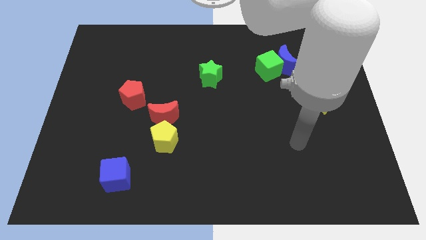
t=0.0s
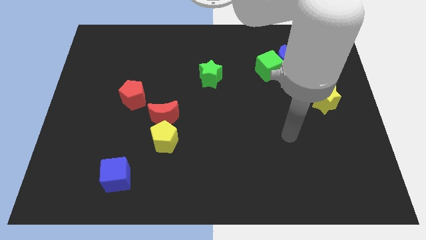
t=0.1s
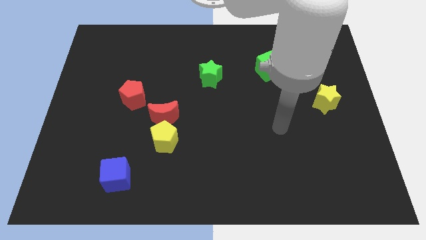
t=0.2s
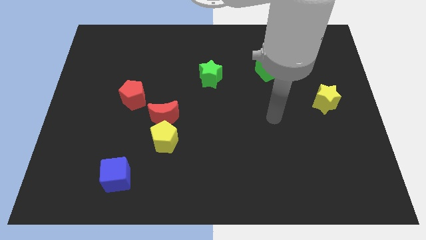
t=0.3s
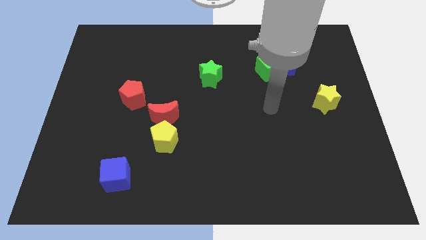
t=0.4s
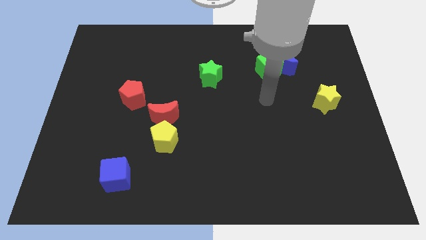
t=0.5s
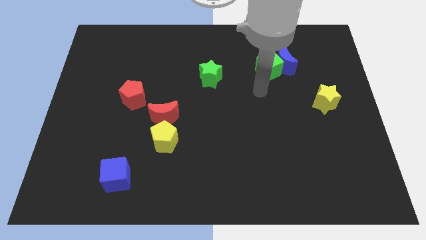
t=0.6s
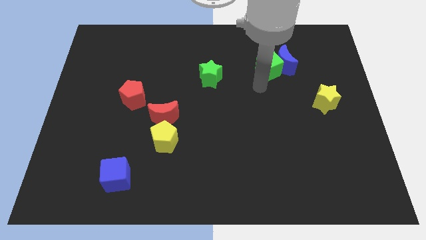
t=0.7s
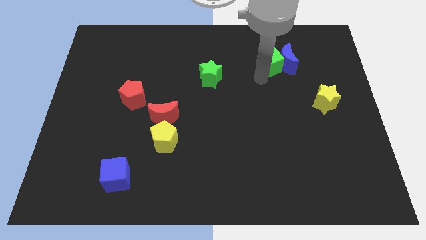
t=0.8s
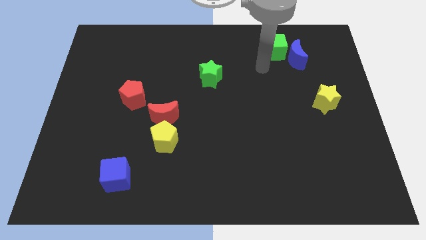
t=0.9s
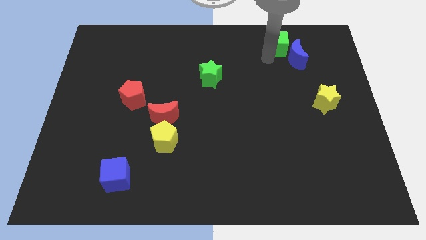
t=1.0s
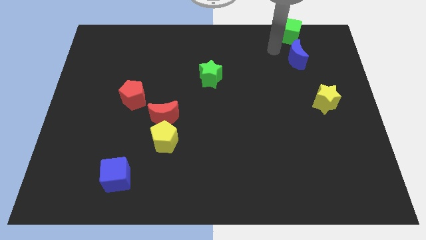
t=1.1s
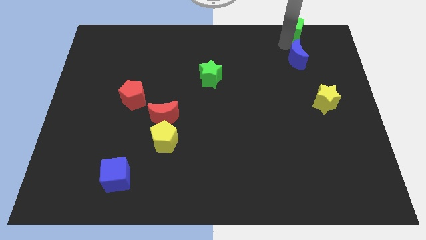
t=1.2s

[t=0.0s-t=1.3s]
separate the blue moon from the green cube

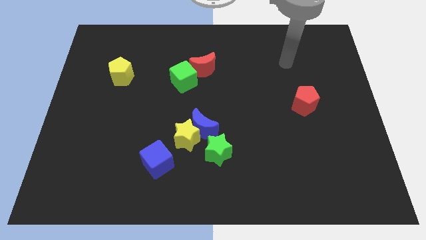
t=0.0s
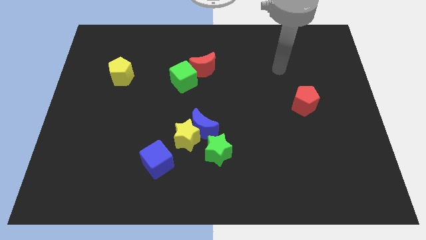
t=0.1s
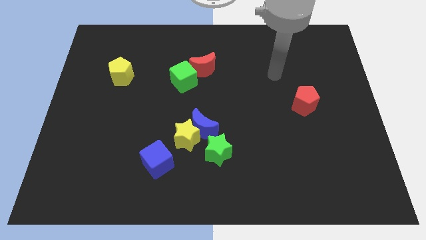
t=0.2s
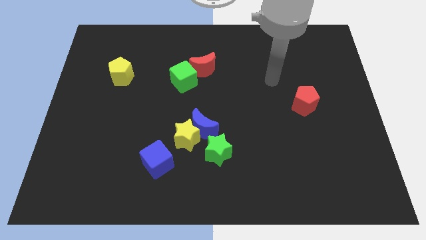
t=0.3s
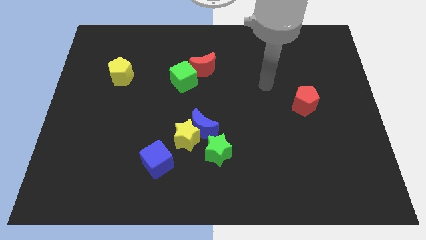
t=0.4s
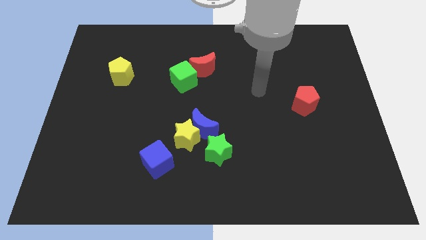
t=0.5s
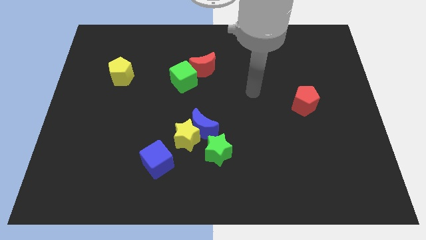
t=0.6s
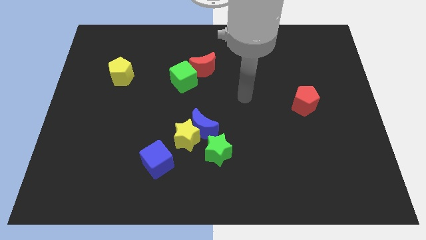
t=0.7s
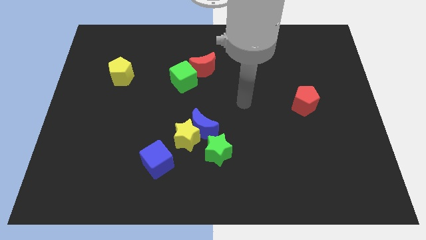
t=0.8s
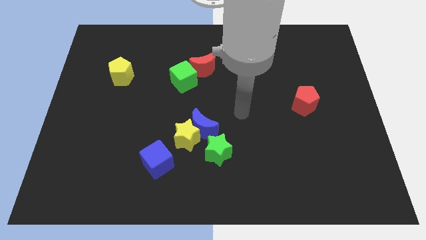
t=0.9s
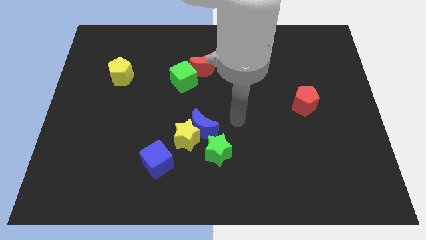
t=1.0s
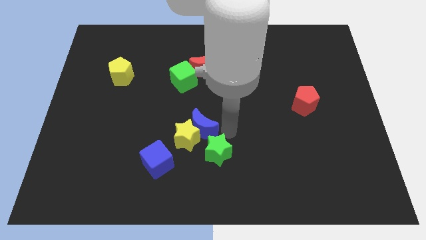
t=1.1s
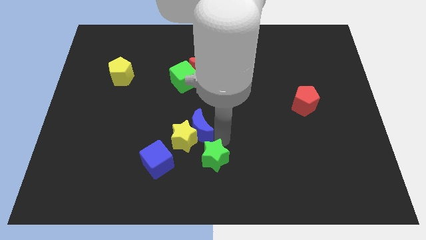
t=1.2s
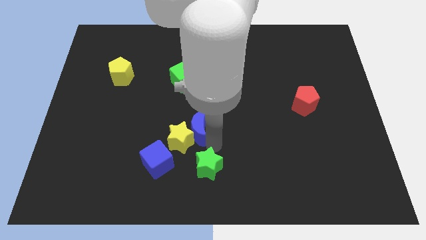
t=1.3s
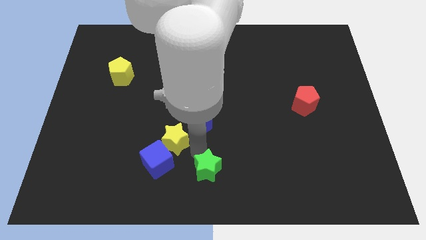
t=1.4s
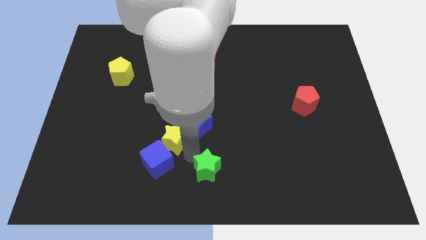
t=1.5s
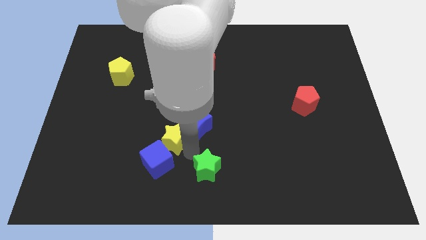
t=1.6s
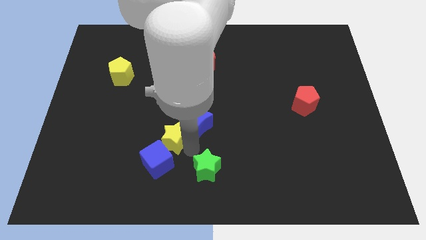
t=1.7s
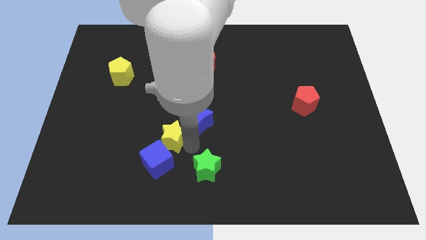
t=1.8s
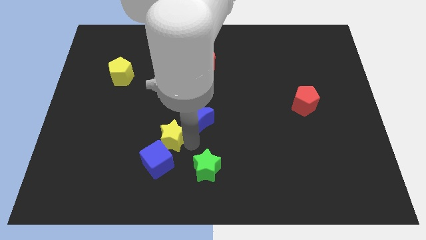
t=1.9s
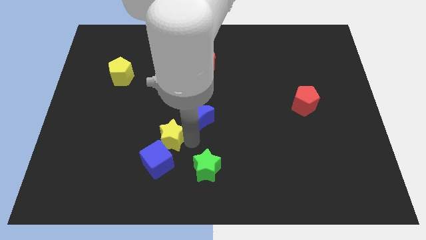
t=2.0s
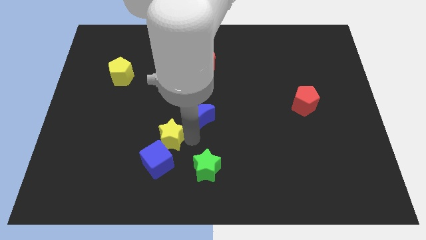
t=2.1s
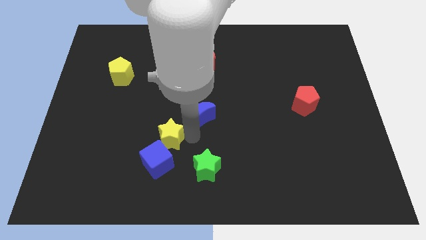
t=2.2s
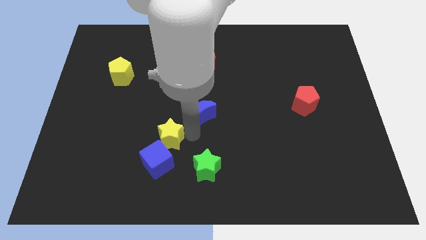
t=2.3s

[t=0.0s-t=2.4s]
pull the blue moon apart from the yellow star and green star

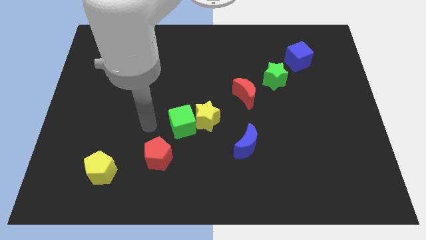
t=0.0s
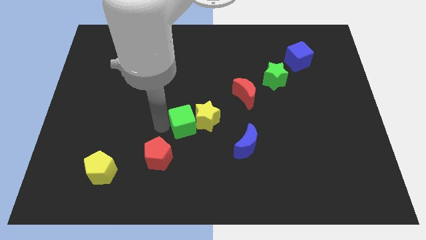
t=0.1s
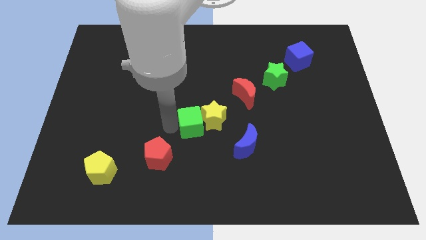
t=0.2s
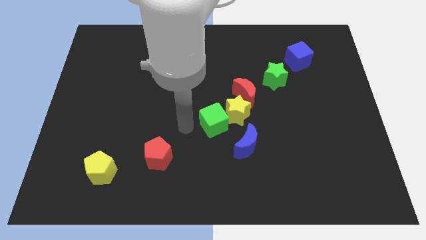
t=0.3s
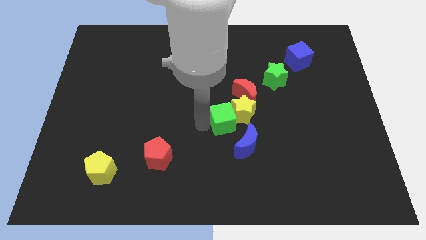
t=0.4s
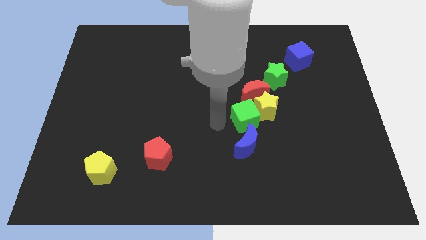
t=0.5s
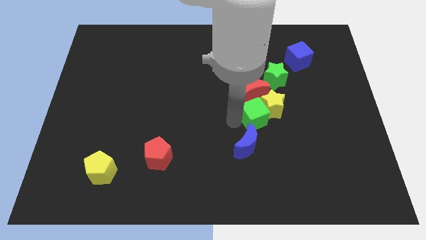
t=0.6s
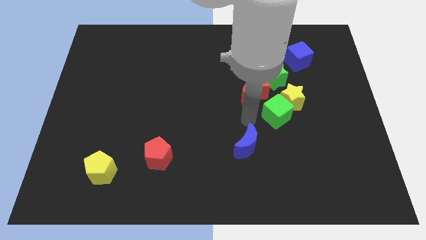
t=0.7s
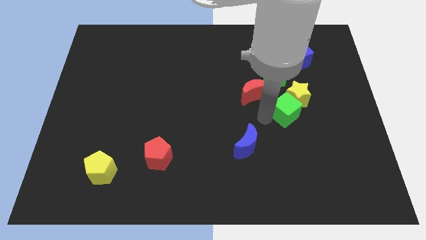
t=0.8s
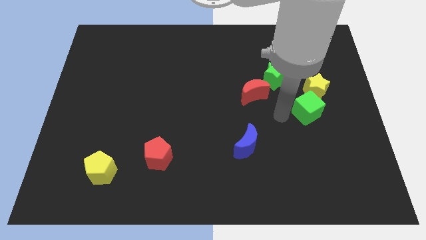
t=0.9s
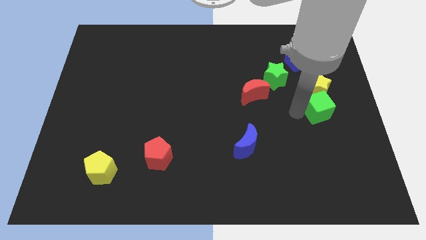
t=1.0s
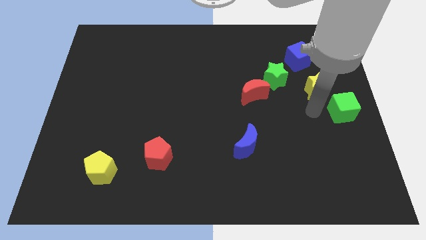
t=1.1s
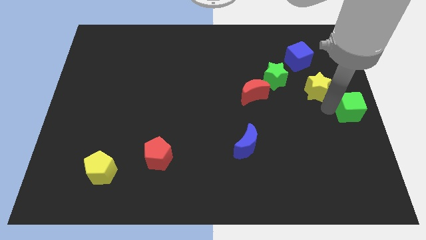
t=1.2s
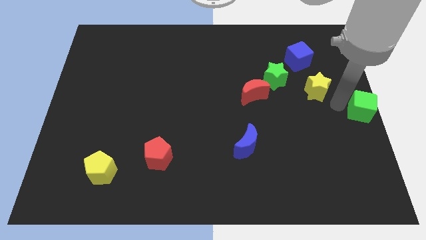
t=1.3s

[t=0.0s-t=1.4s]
separate the yellow star from the green cube

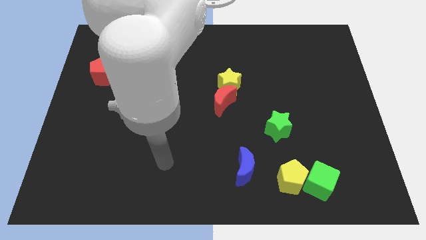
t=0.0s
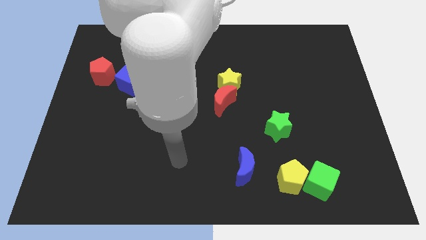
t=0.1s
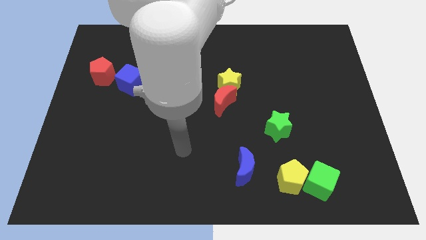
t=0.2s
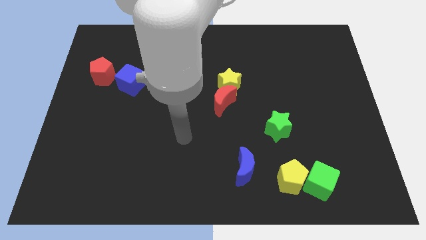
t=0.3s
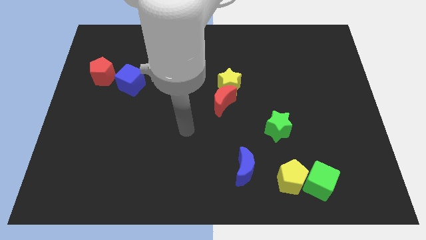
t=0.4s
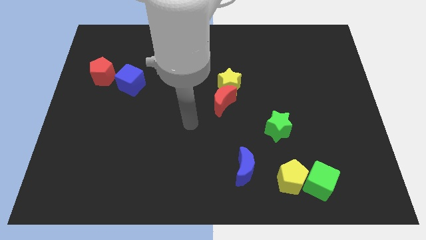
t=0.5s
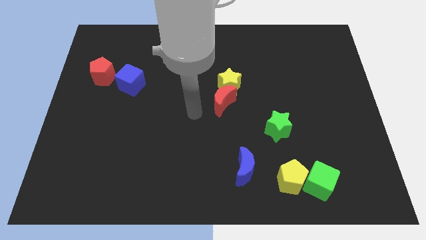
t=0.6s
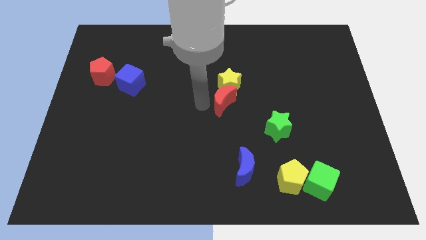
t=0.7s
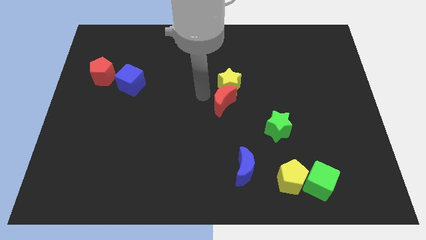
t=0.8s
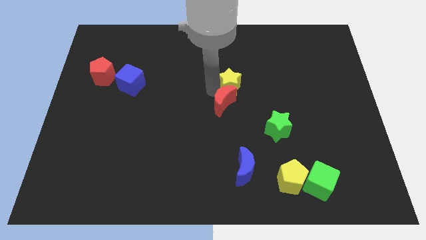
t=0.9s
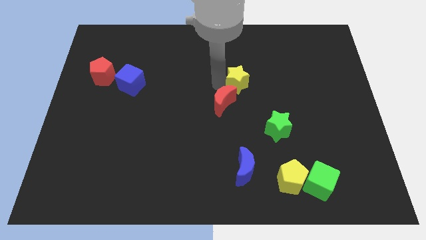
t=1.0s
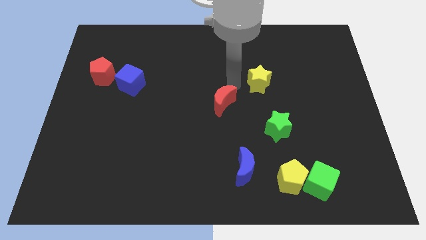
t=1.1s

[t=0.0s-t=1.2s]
pull the red moon apart from the yellow star

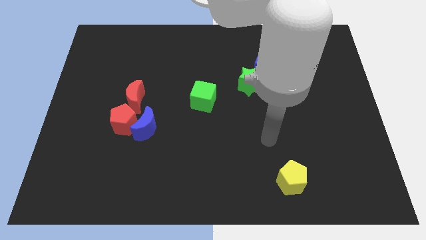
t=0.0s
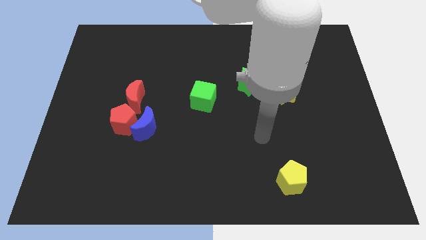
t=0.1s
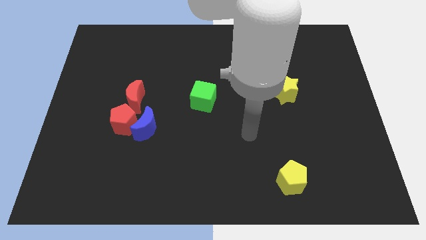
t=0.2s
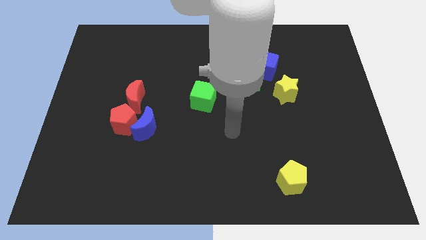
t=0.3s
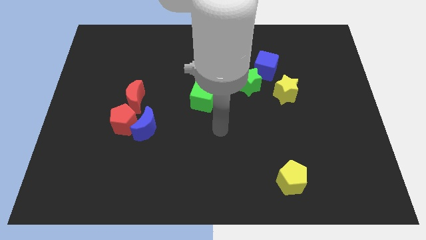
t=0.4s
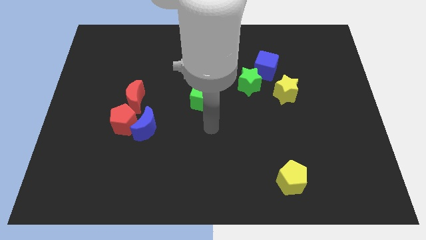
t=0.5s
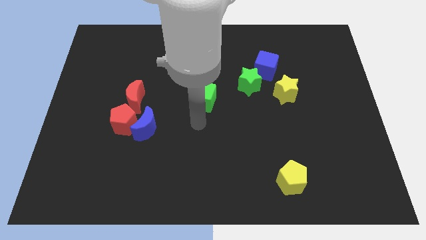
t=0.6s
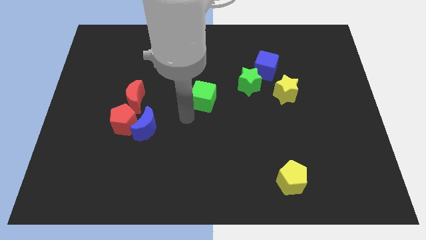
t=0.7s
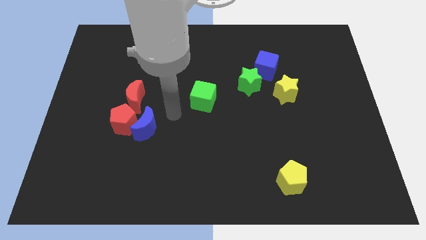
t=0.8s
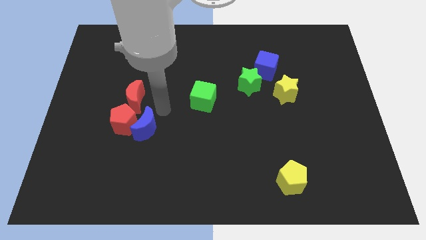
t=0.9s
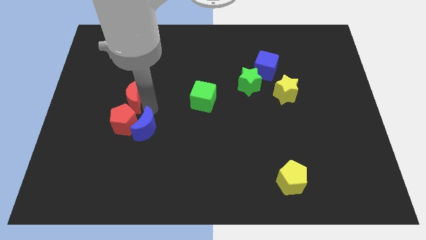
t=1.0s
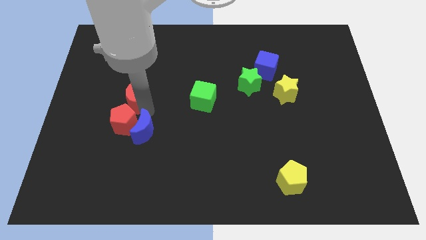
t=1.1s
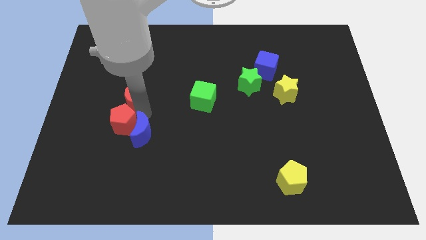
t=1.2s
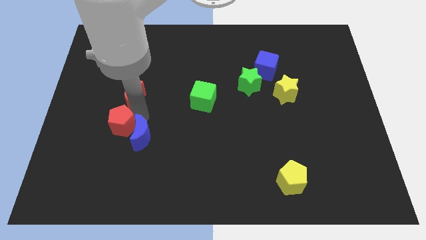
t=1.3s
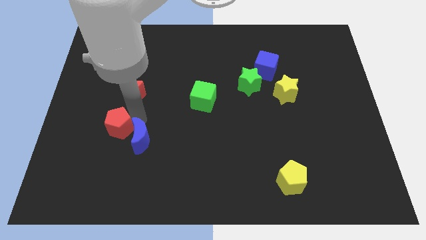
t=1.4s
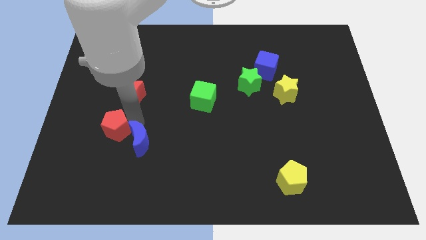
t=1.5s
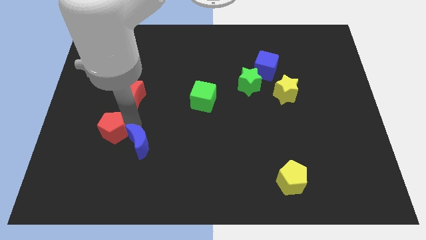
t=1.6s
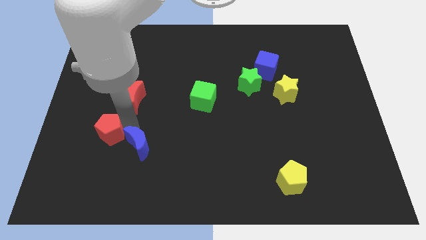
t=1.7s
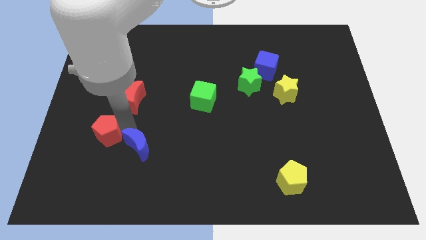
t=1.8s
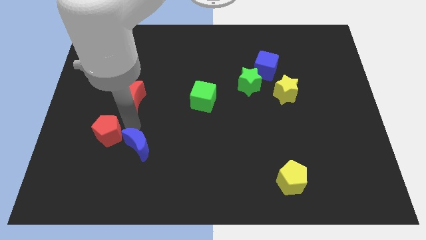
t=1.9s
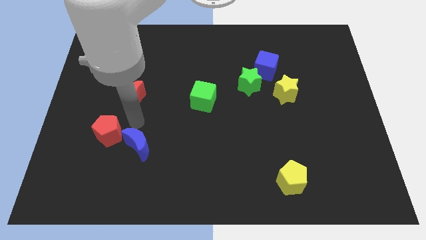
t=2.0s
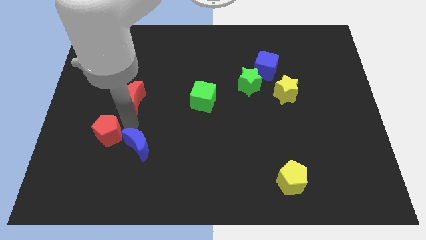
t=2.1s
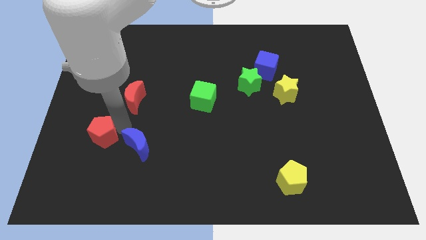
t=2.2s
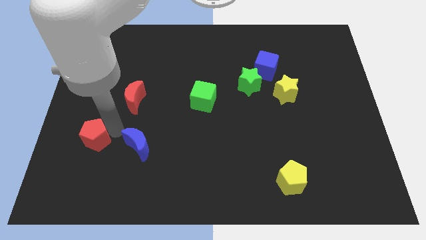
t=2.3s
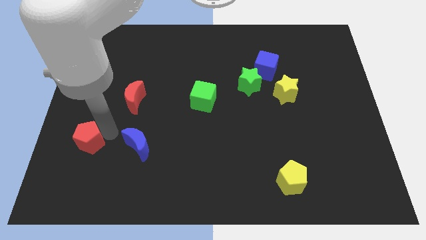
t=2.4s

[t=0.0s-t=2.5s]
move the red pentagon away from the blue moon and red moon

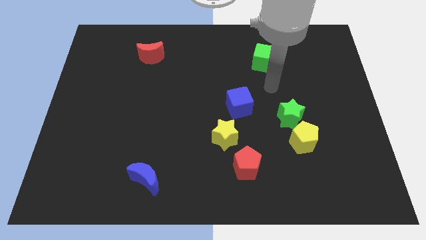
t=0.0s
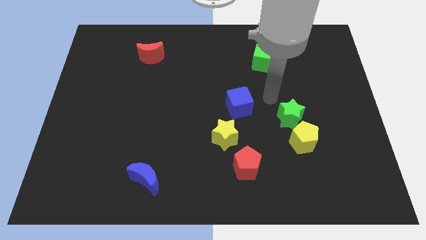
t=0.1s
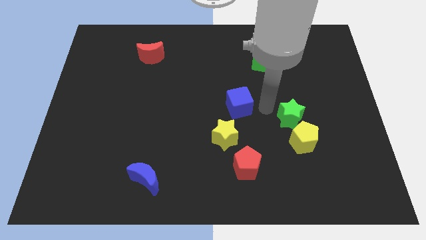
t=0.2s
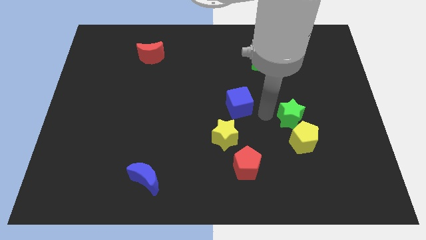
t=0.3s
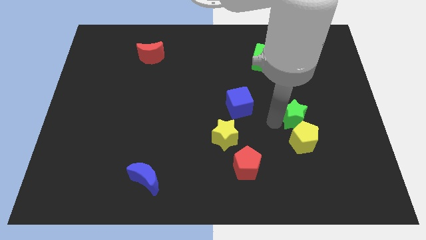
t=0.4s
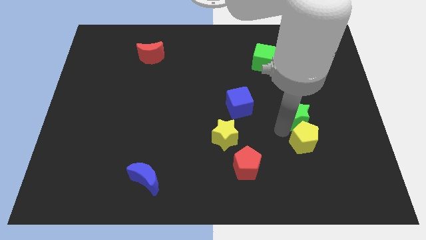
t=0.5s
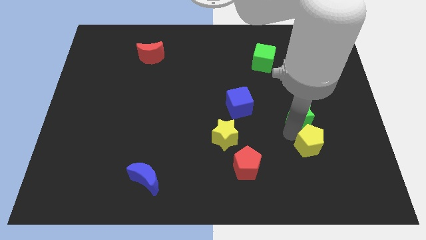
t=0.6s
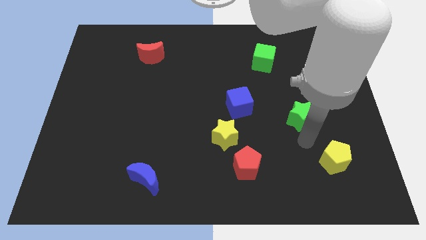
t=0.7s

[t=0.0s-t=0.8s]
pull the green star apart from the yellow pentagon
